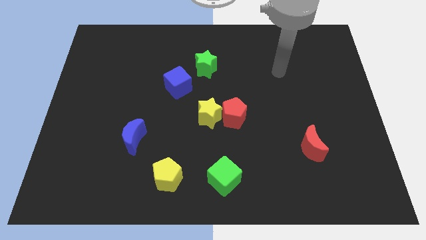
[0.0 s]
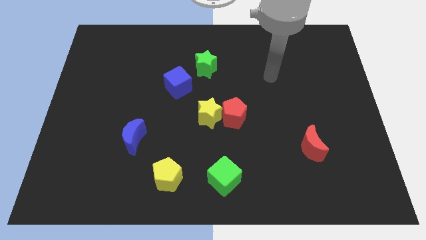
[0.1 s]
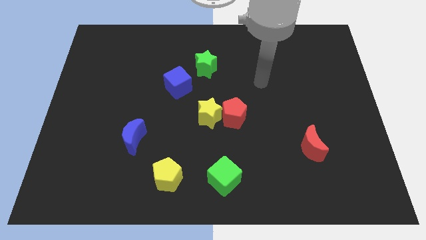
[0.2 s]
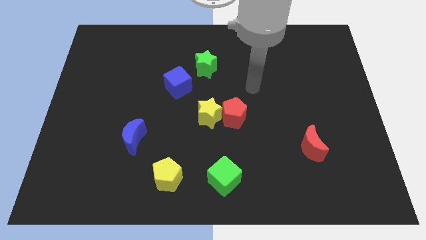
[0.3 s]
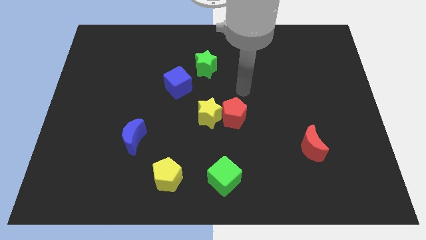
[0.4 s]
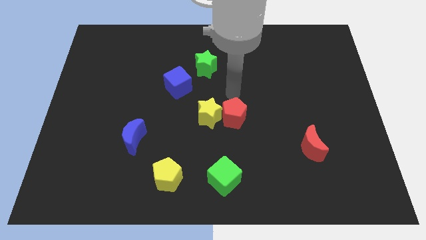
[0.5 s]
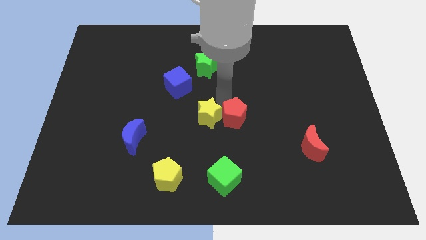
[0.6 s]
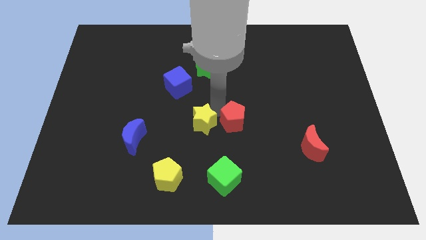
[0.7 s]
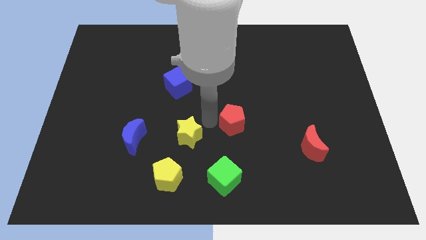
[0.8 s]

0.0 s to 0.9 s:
separate the red pentagon from the yellow star

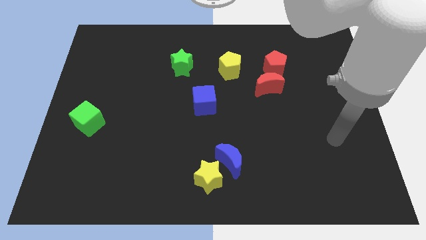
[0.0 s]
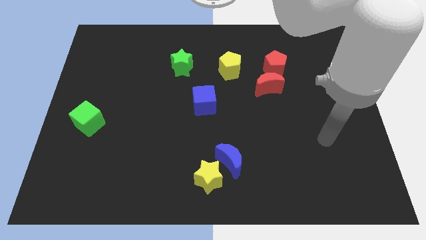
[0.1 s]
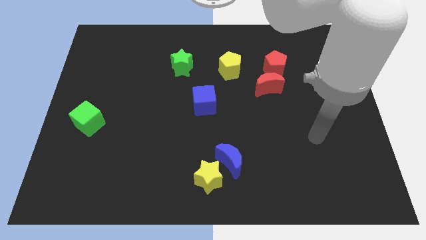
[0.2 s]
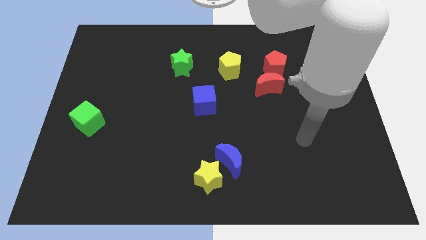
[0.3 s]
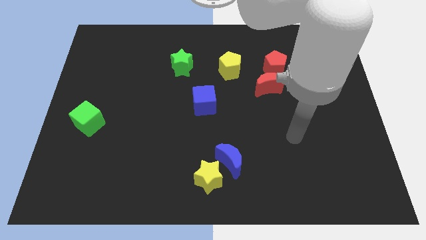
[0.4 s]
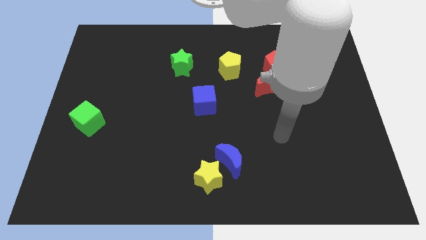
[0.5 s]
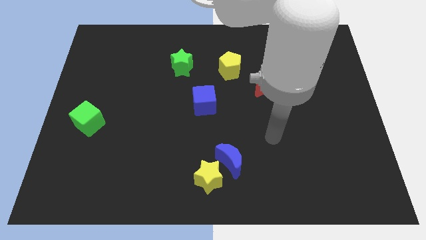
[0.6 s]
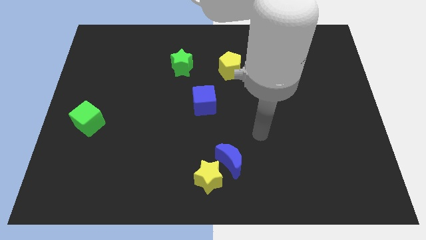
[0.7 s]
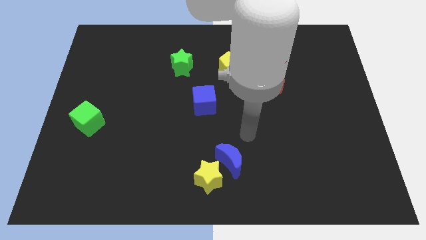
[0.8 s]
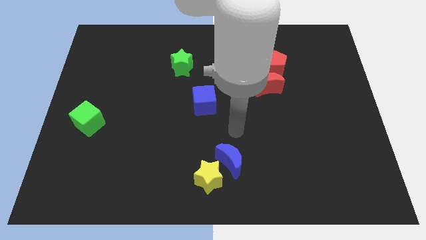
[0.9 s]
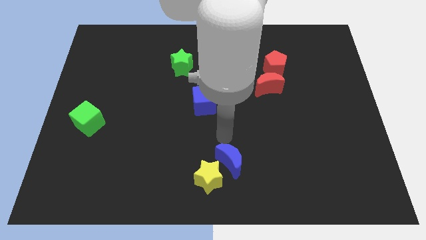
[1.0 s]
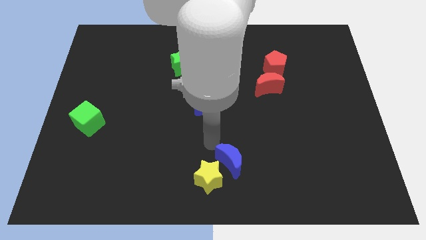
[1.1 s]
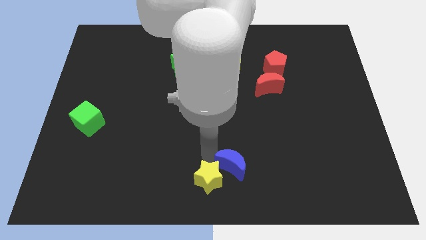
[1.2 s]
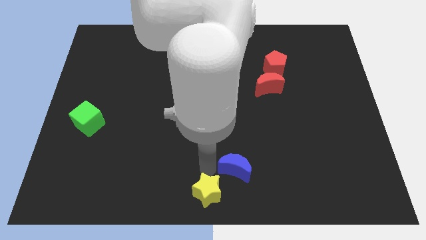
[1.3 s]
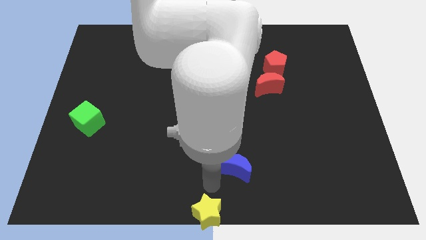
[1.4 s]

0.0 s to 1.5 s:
move the blue moon away from the yellow star

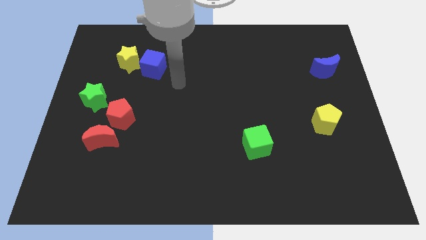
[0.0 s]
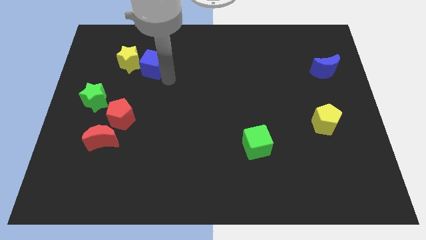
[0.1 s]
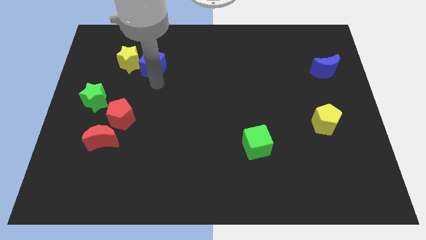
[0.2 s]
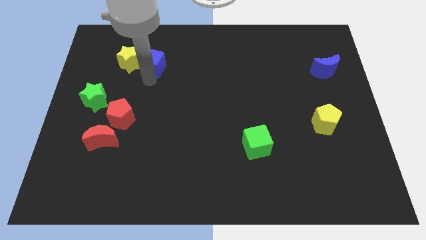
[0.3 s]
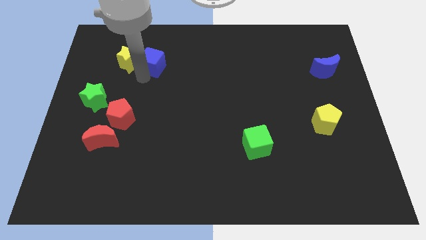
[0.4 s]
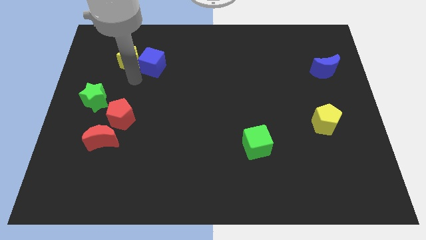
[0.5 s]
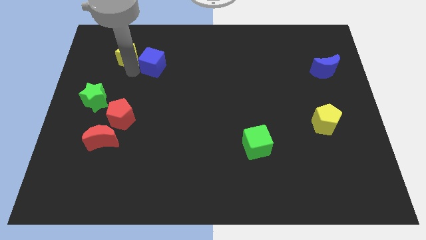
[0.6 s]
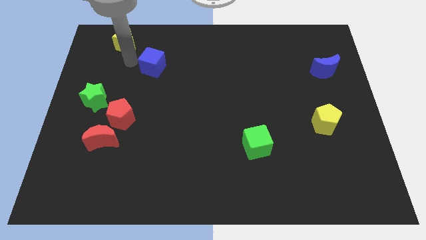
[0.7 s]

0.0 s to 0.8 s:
separate the blue cube from the yellow star

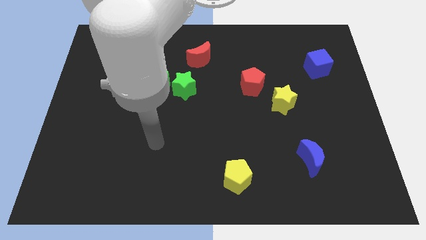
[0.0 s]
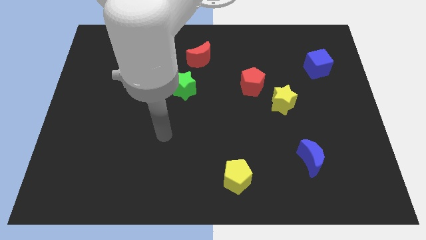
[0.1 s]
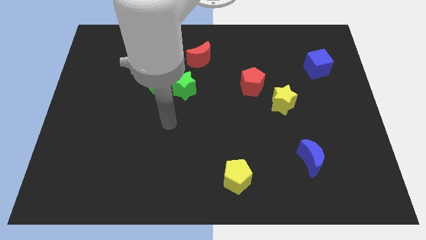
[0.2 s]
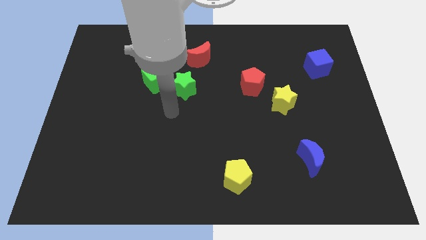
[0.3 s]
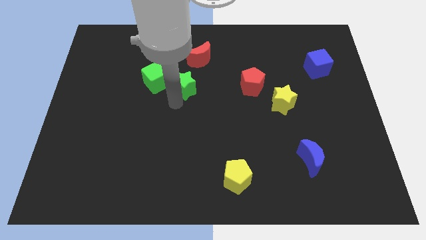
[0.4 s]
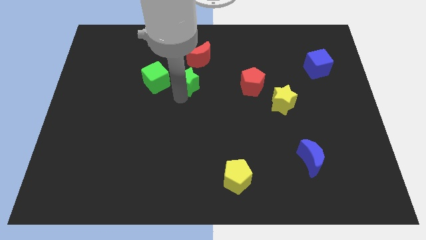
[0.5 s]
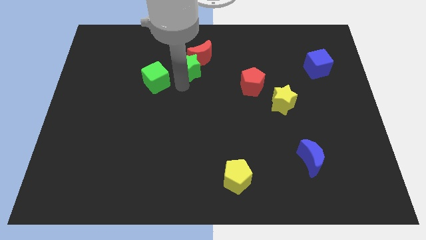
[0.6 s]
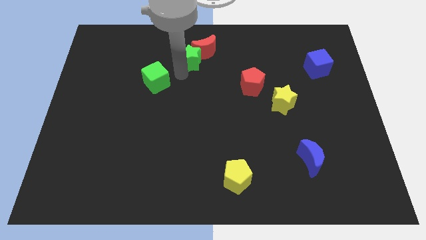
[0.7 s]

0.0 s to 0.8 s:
pull the green cube apart from the green star

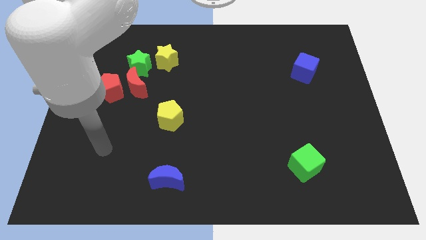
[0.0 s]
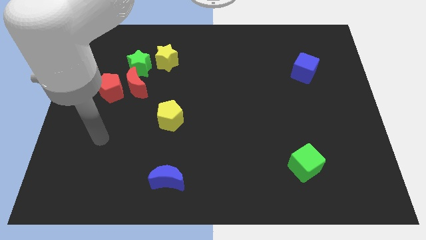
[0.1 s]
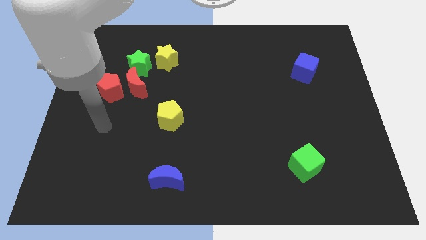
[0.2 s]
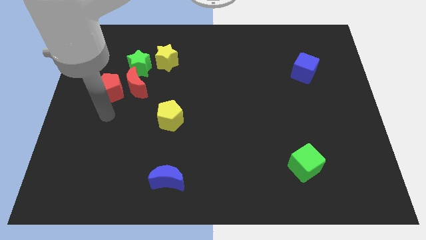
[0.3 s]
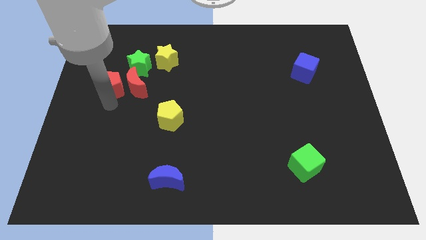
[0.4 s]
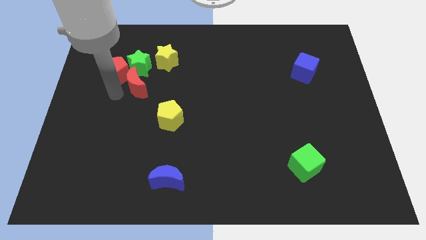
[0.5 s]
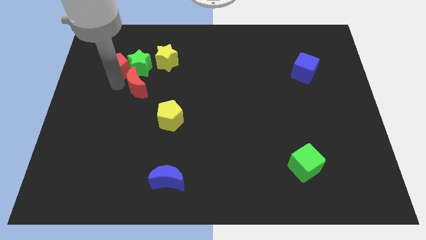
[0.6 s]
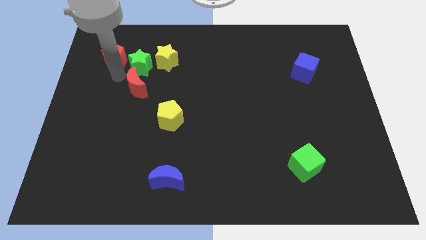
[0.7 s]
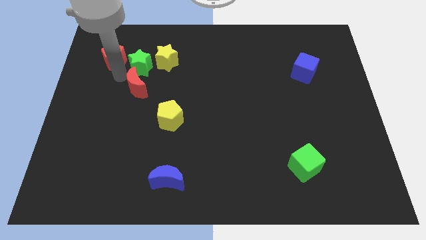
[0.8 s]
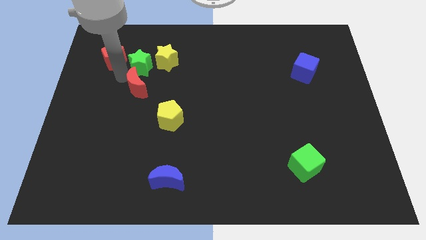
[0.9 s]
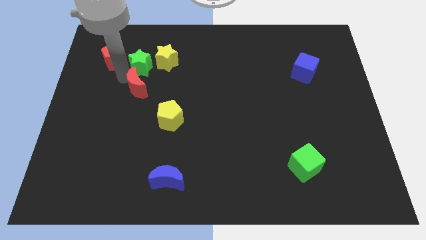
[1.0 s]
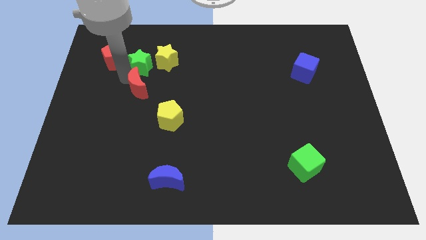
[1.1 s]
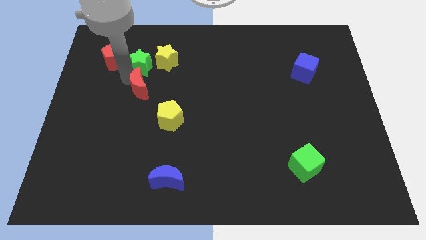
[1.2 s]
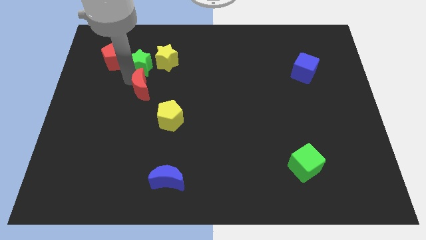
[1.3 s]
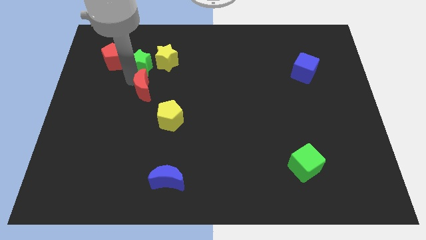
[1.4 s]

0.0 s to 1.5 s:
move the red moon away from the red pentagon and green star

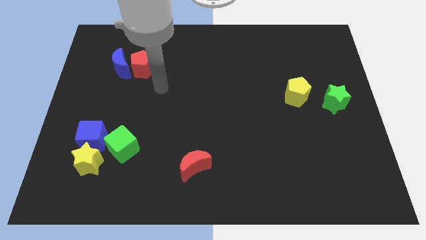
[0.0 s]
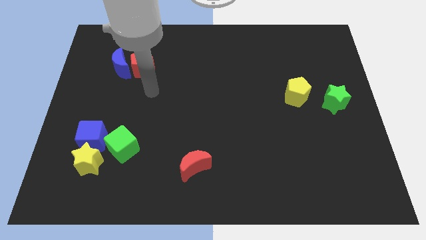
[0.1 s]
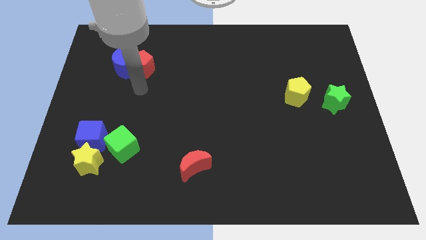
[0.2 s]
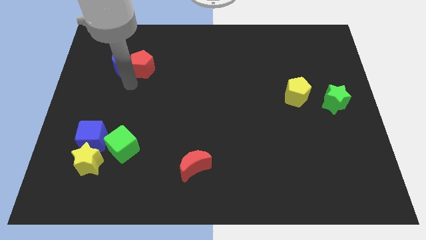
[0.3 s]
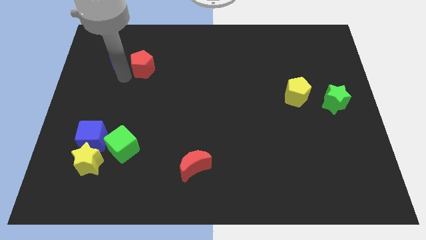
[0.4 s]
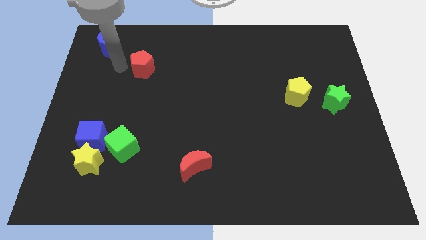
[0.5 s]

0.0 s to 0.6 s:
pull the red pentagon apart from the blue moon

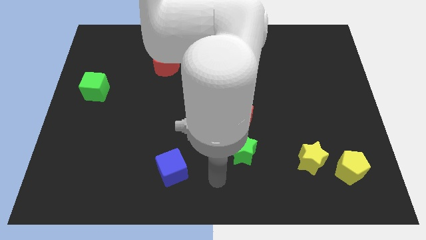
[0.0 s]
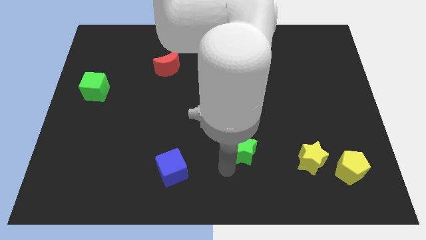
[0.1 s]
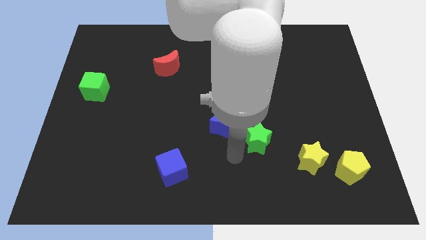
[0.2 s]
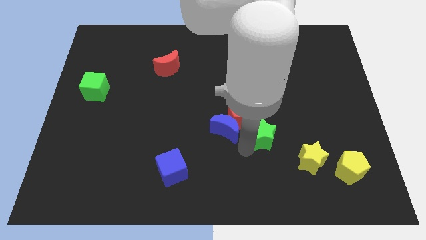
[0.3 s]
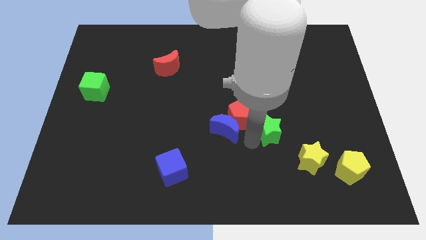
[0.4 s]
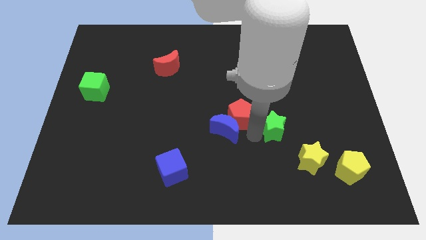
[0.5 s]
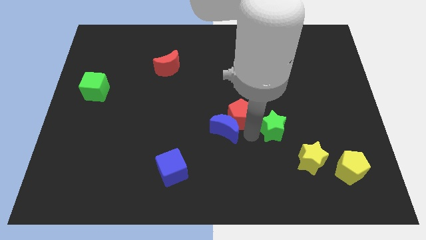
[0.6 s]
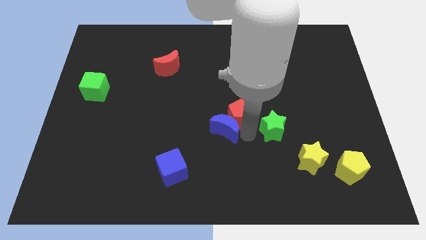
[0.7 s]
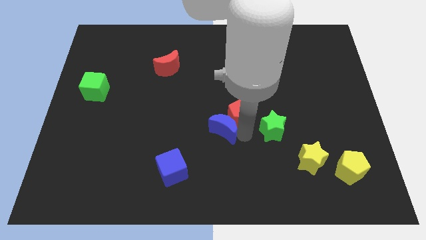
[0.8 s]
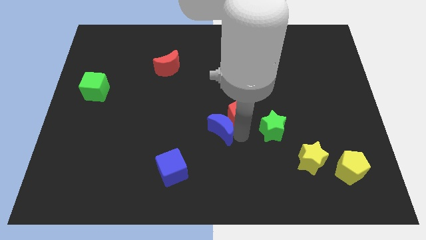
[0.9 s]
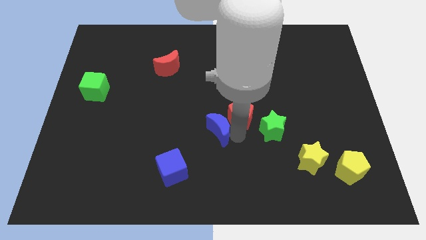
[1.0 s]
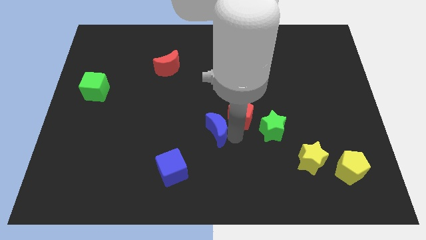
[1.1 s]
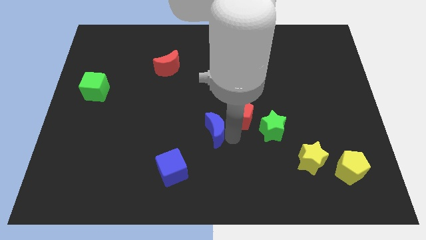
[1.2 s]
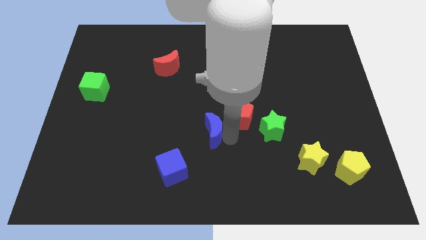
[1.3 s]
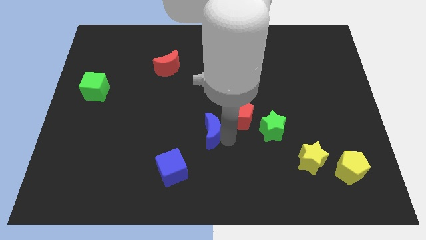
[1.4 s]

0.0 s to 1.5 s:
separate the blue moon from the red pentagon and green star

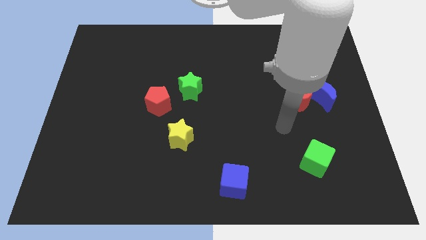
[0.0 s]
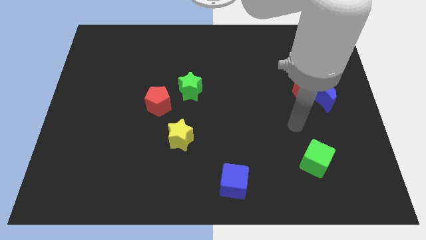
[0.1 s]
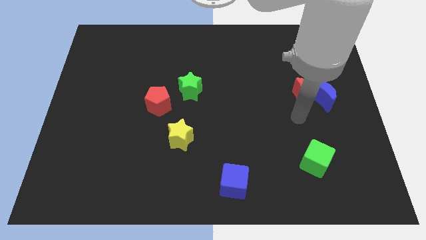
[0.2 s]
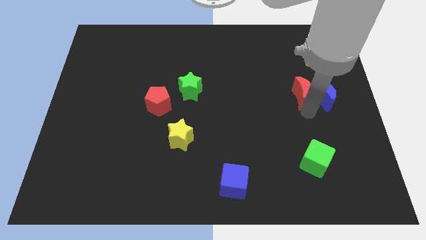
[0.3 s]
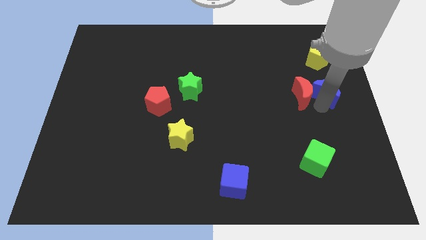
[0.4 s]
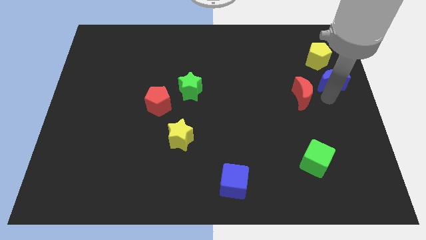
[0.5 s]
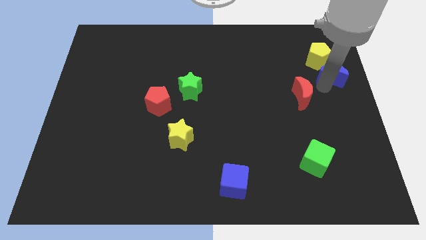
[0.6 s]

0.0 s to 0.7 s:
move the red moon away from the blue moon

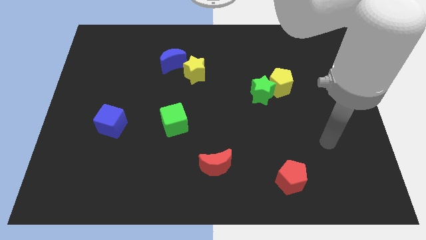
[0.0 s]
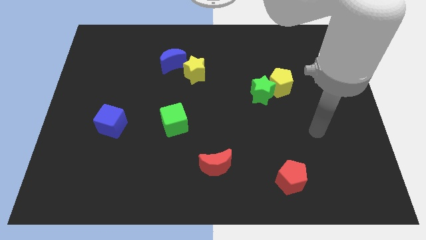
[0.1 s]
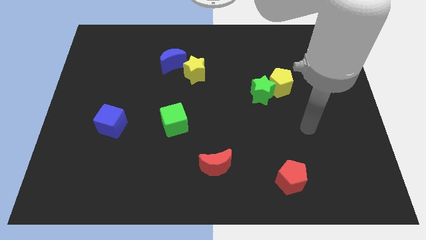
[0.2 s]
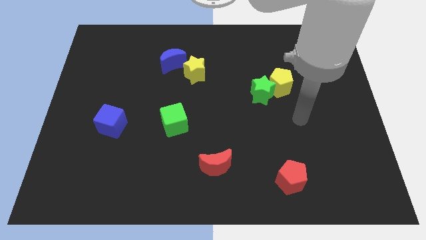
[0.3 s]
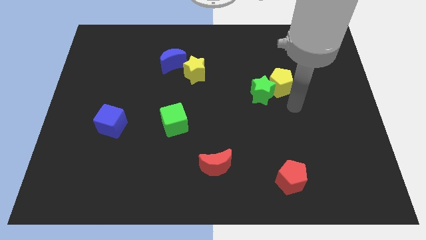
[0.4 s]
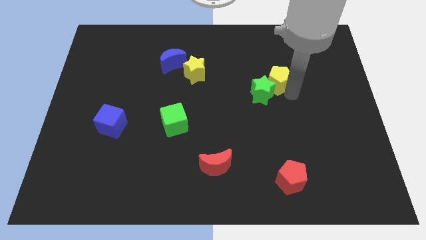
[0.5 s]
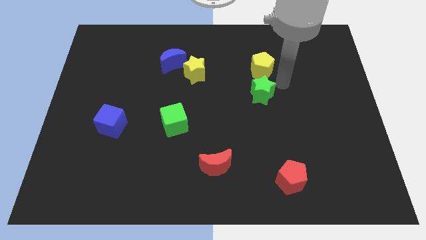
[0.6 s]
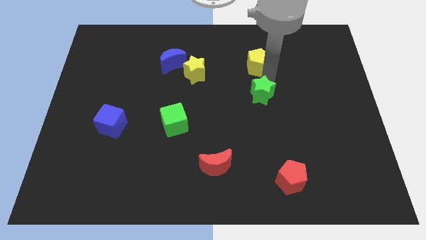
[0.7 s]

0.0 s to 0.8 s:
move the green star away from the yellow pentagon
